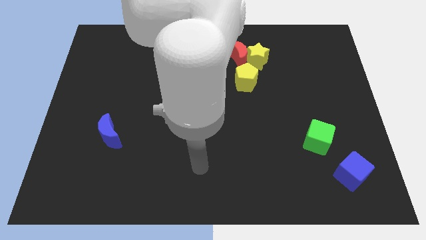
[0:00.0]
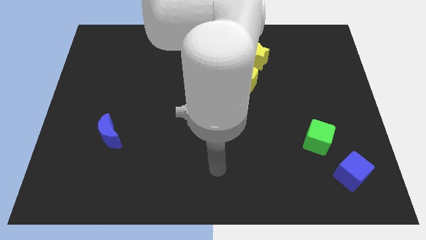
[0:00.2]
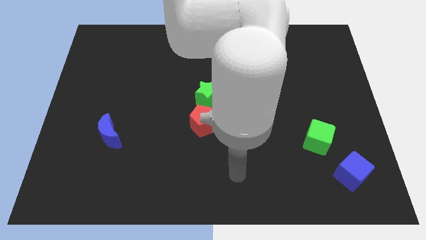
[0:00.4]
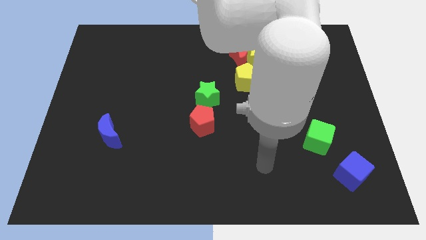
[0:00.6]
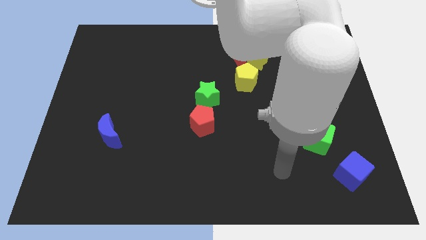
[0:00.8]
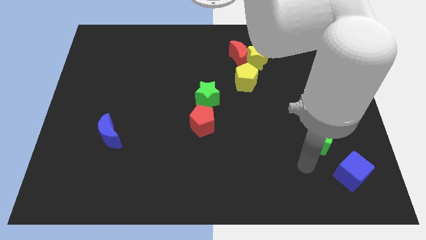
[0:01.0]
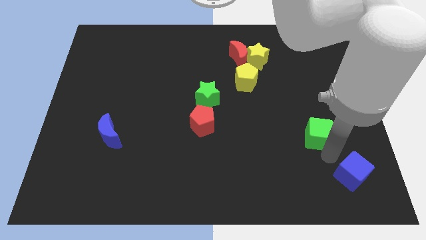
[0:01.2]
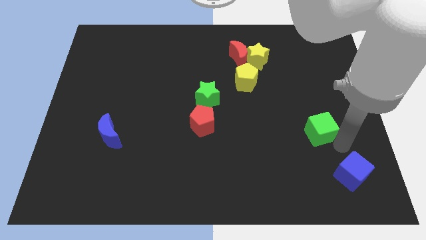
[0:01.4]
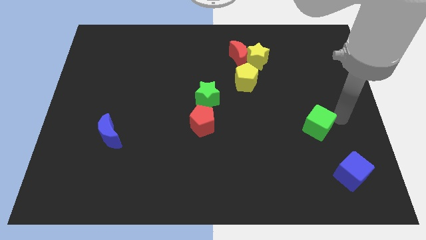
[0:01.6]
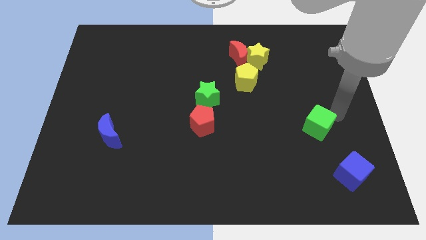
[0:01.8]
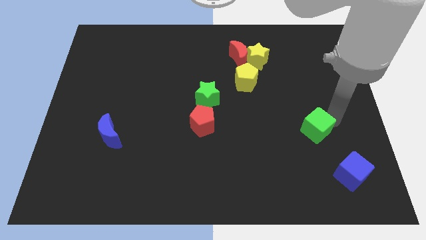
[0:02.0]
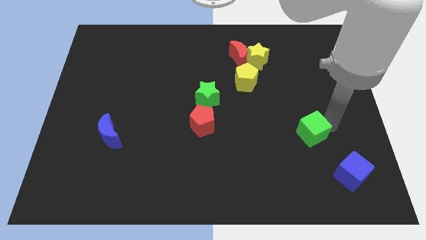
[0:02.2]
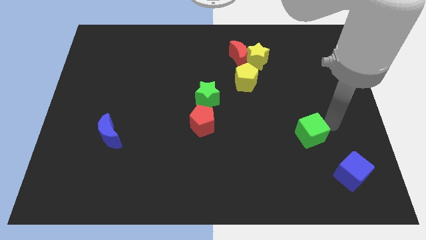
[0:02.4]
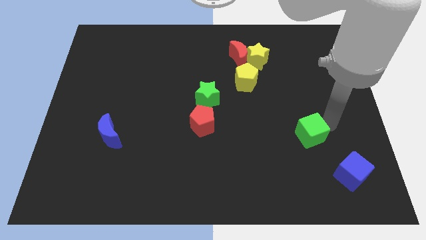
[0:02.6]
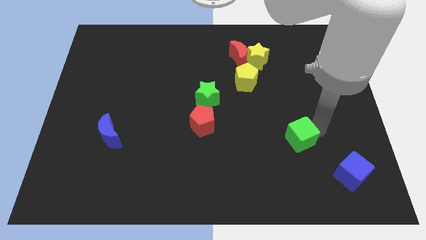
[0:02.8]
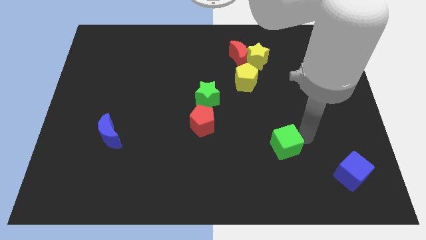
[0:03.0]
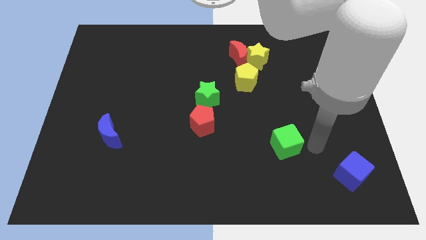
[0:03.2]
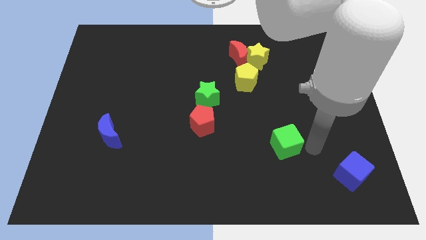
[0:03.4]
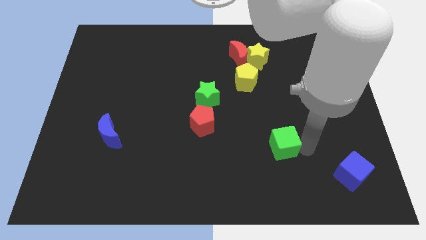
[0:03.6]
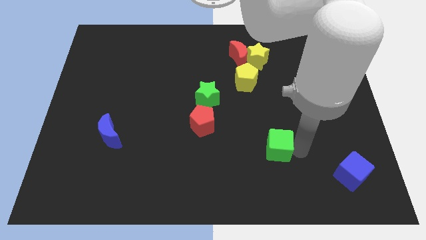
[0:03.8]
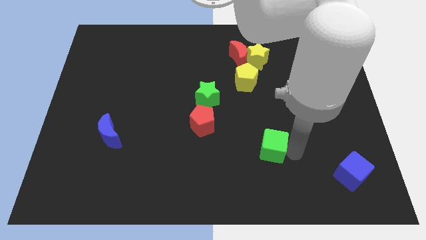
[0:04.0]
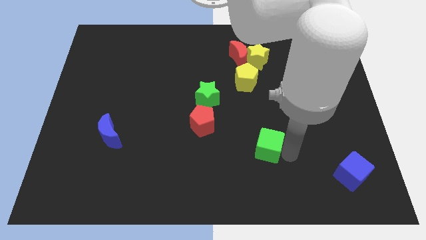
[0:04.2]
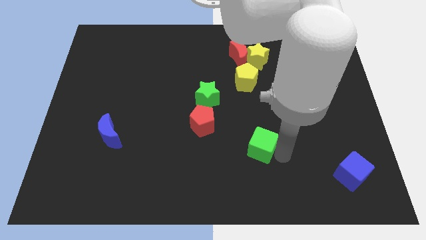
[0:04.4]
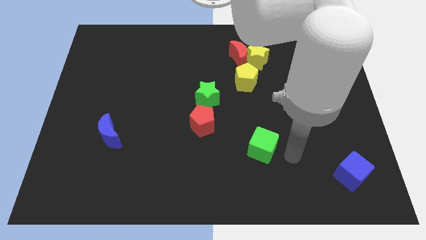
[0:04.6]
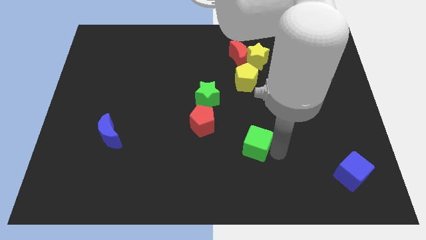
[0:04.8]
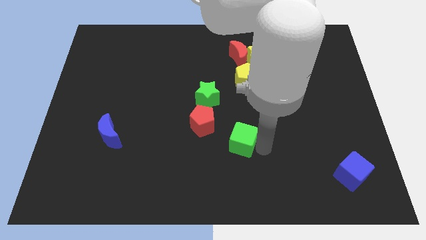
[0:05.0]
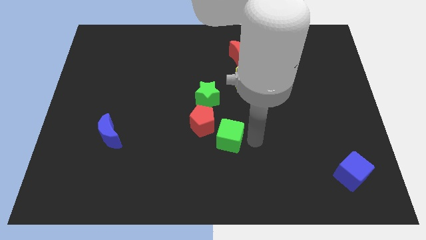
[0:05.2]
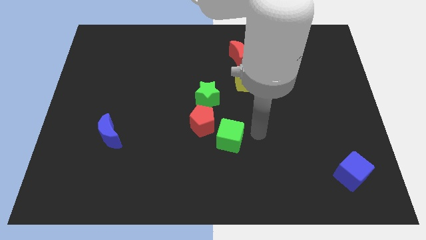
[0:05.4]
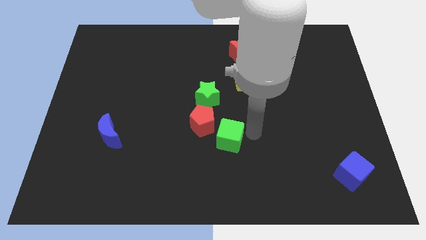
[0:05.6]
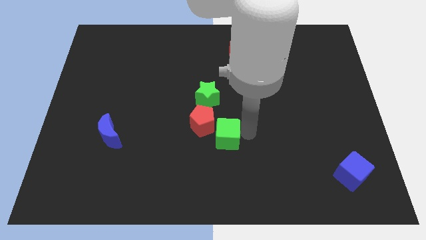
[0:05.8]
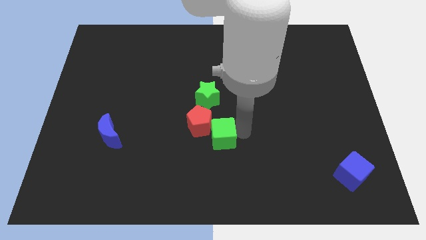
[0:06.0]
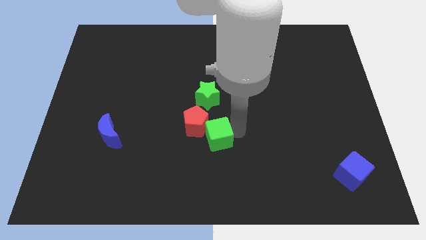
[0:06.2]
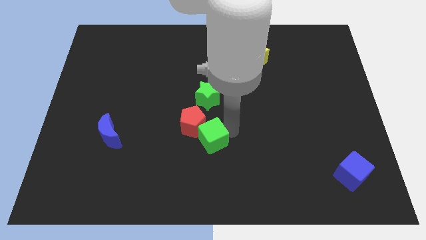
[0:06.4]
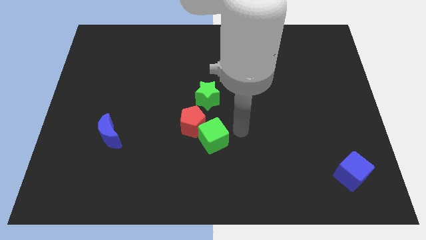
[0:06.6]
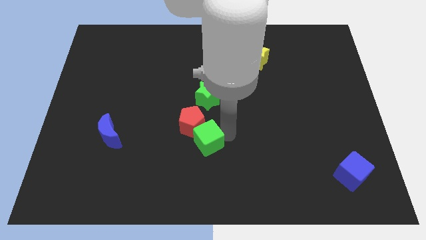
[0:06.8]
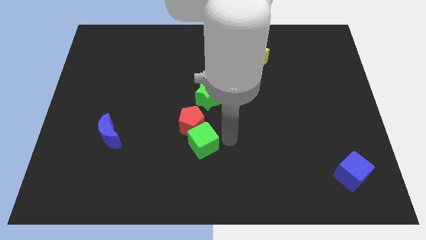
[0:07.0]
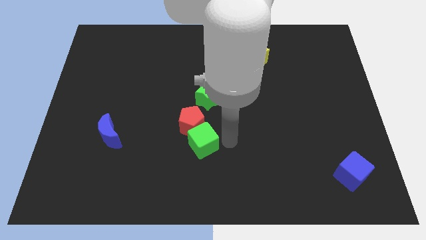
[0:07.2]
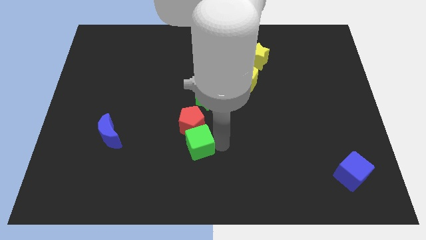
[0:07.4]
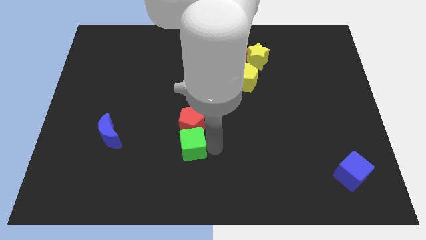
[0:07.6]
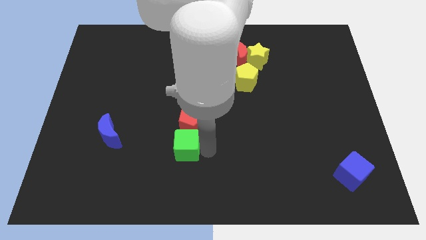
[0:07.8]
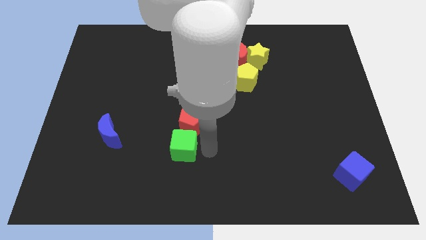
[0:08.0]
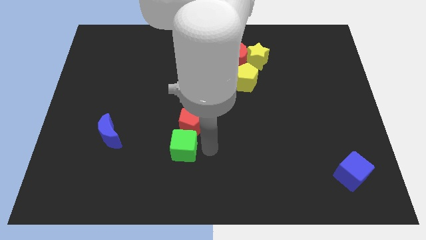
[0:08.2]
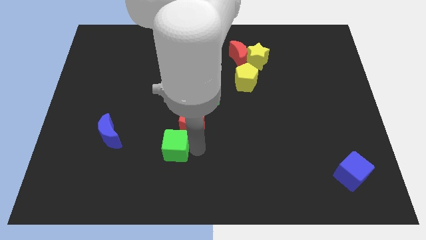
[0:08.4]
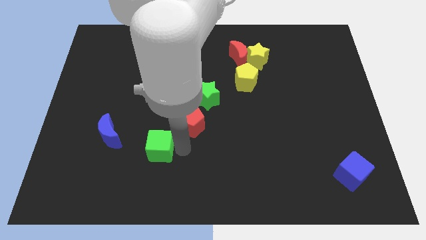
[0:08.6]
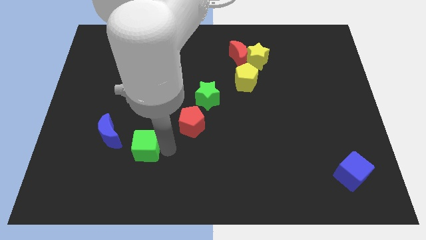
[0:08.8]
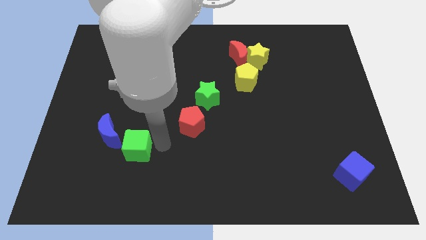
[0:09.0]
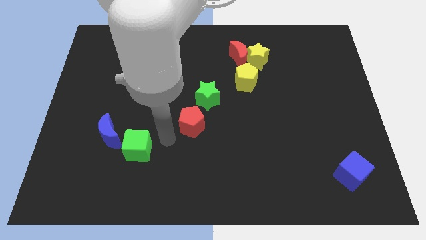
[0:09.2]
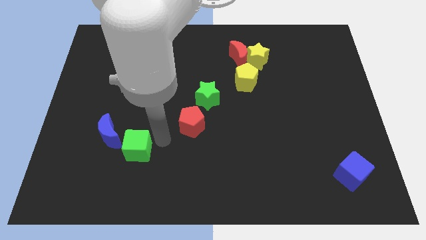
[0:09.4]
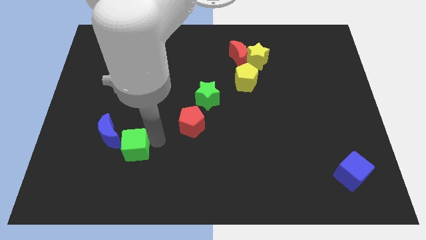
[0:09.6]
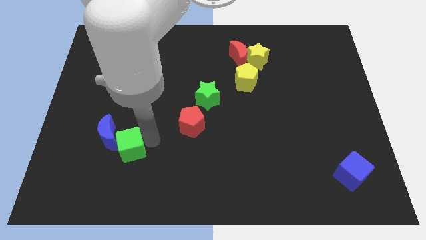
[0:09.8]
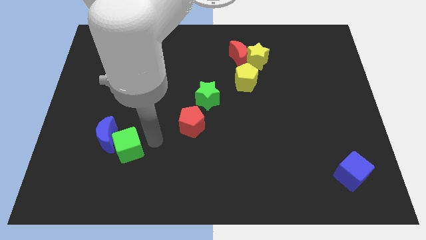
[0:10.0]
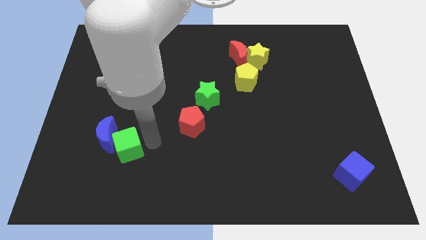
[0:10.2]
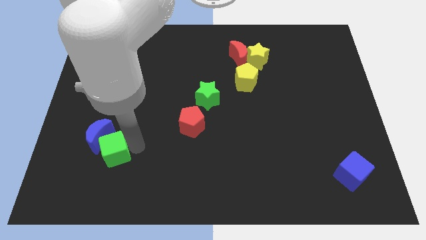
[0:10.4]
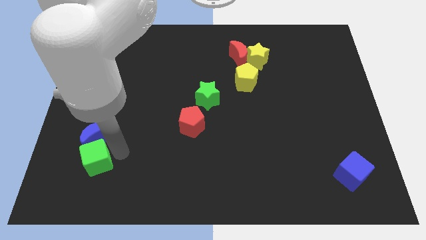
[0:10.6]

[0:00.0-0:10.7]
put the green cube diagonally down and to the left of the blue moon

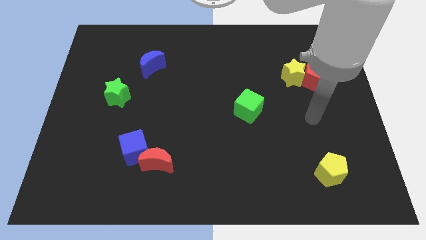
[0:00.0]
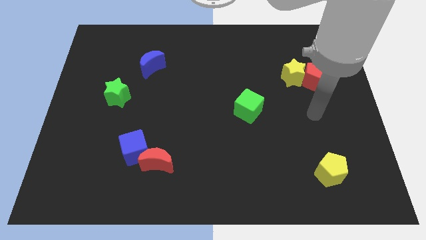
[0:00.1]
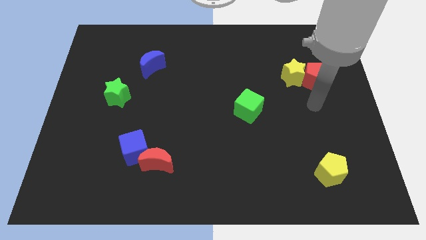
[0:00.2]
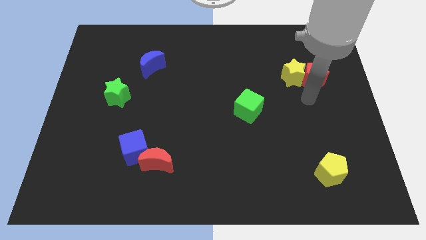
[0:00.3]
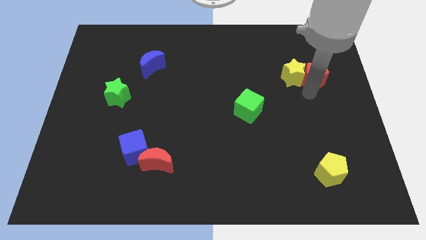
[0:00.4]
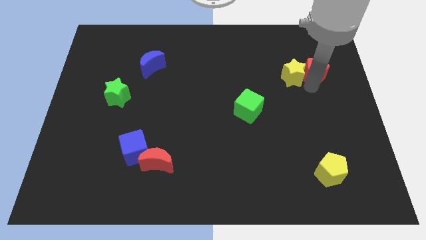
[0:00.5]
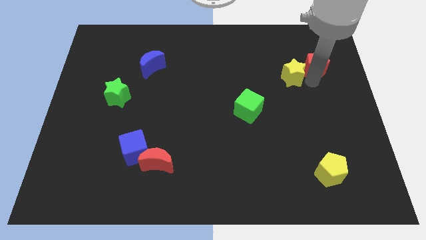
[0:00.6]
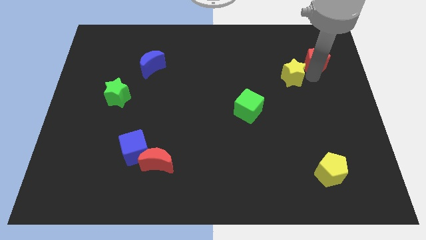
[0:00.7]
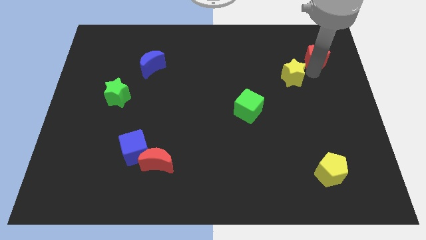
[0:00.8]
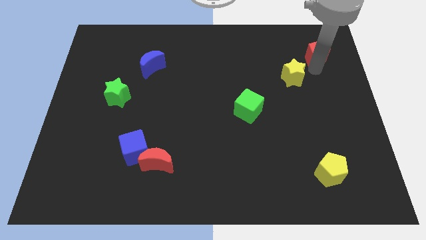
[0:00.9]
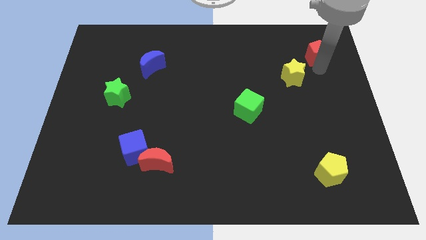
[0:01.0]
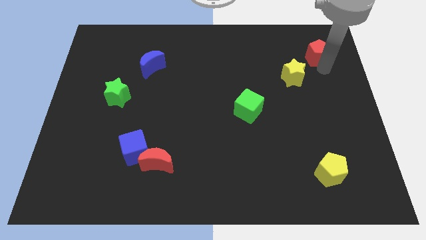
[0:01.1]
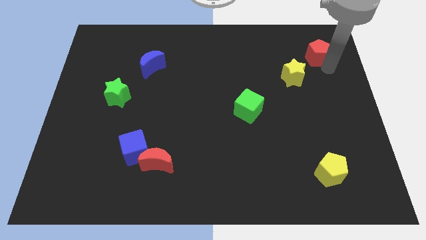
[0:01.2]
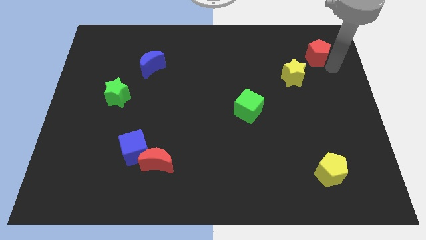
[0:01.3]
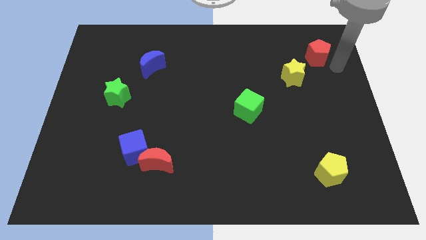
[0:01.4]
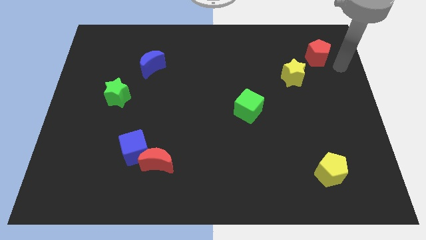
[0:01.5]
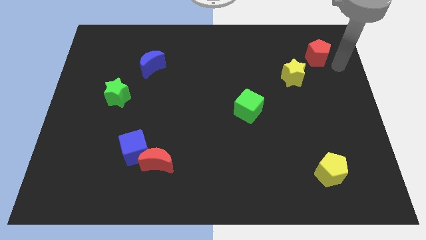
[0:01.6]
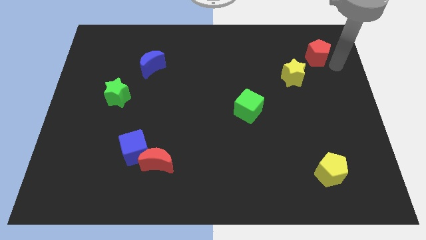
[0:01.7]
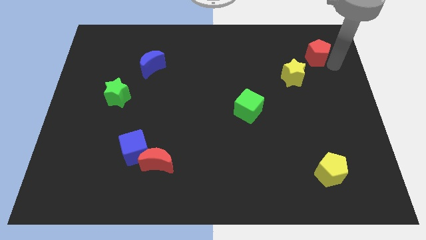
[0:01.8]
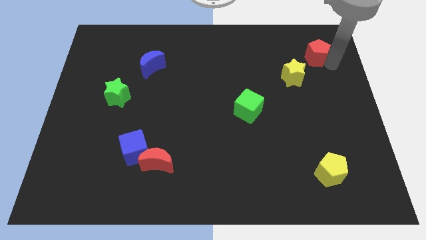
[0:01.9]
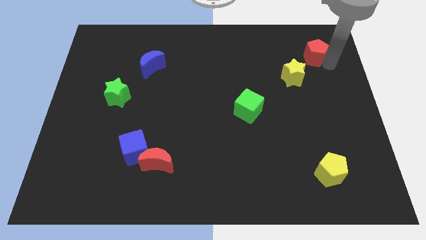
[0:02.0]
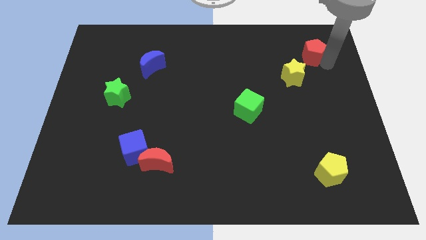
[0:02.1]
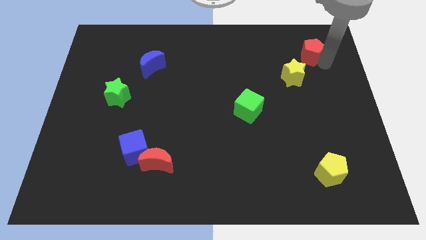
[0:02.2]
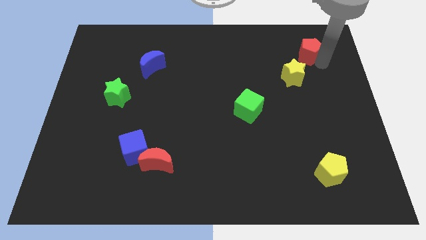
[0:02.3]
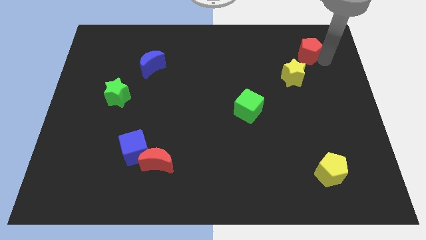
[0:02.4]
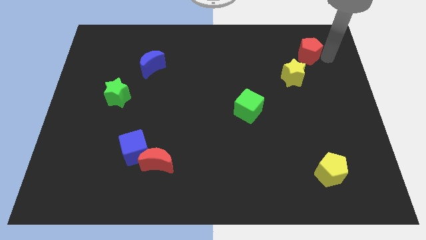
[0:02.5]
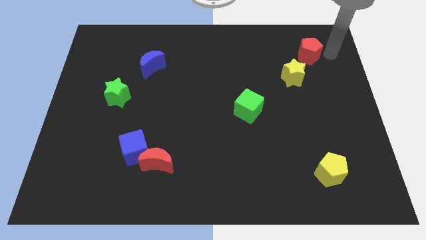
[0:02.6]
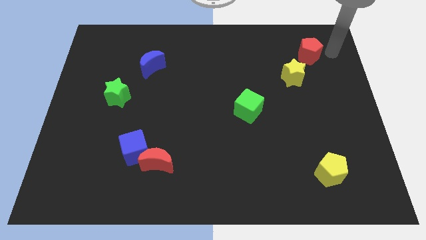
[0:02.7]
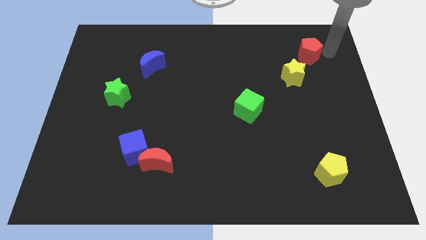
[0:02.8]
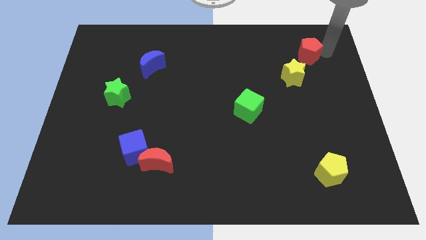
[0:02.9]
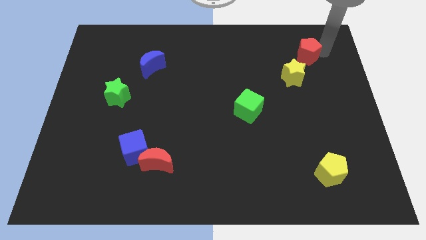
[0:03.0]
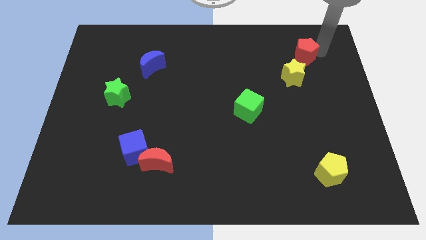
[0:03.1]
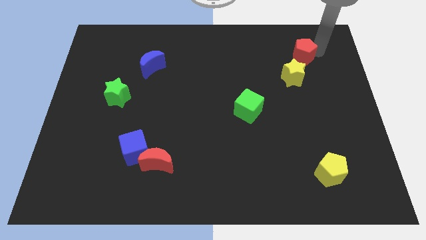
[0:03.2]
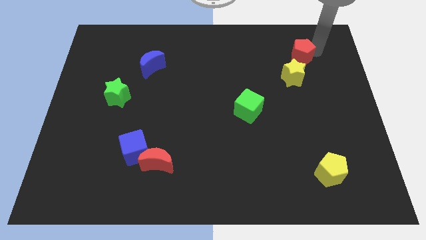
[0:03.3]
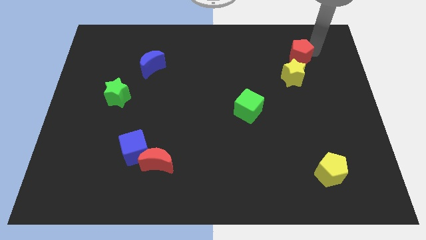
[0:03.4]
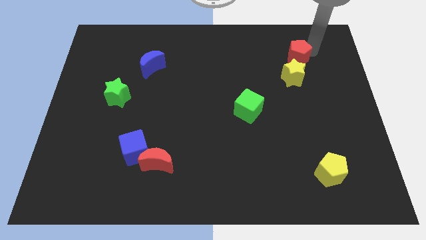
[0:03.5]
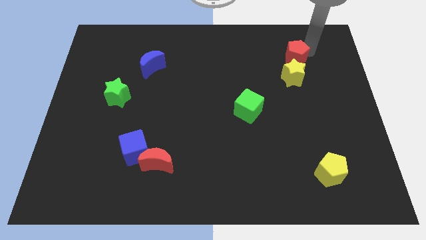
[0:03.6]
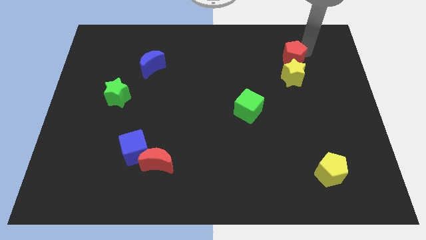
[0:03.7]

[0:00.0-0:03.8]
slide the red pentagon diagonally up and to the left of the yellow star
